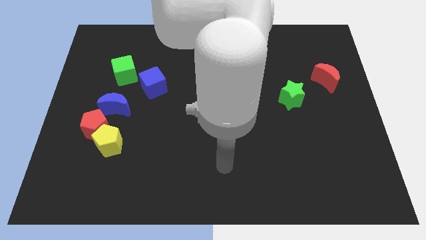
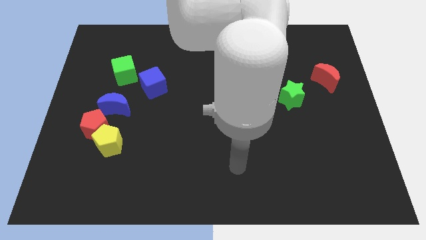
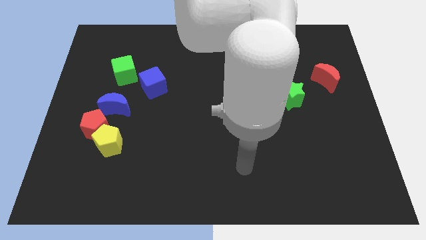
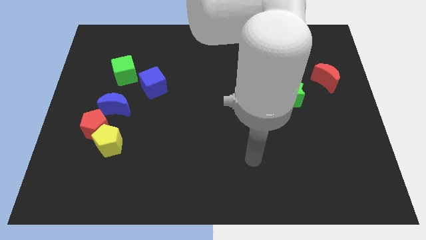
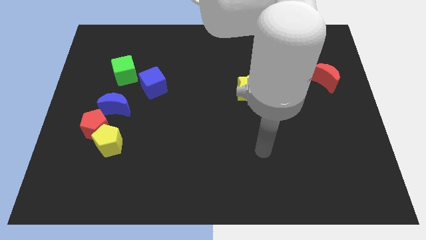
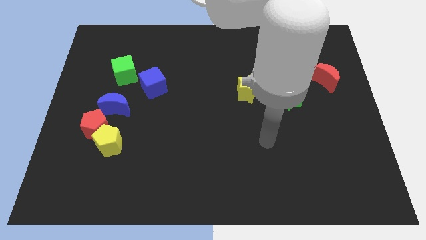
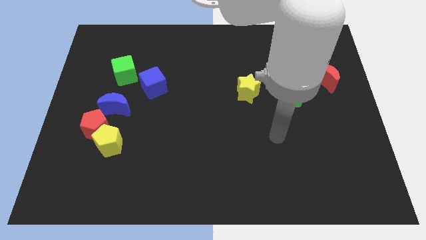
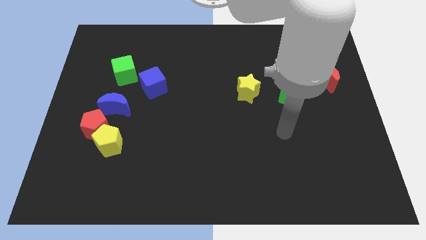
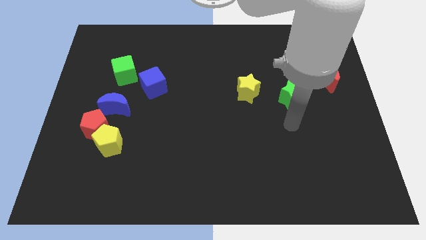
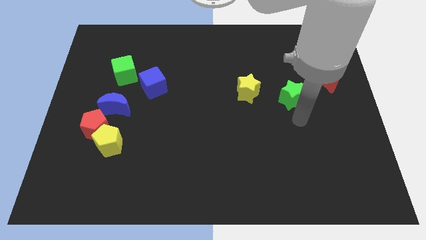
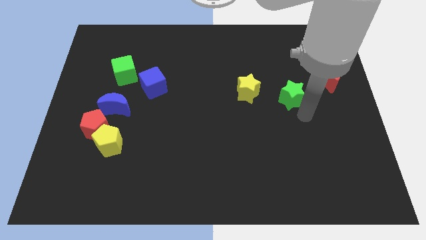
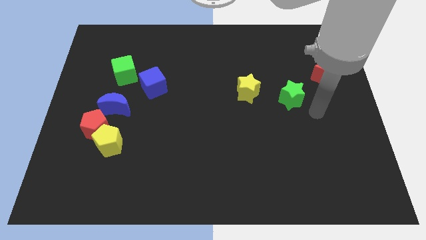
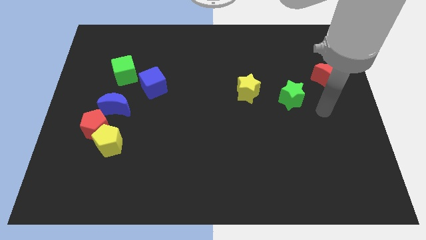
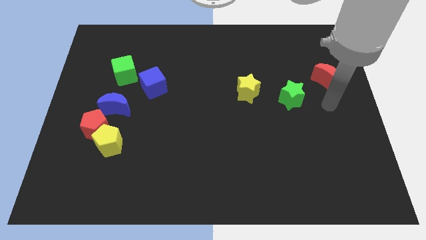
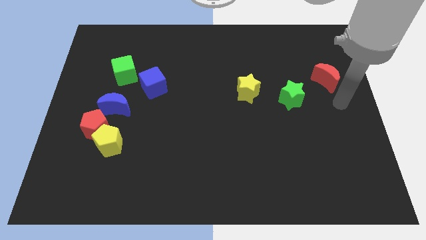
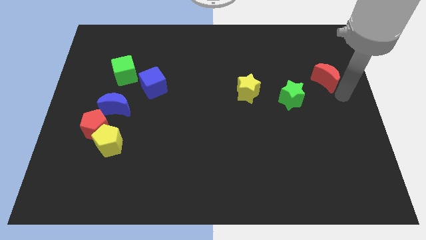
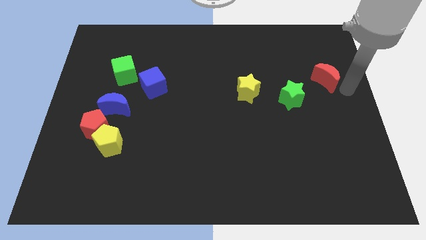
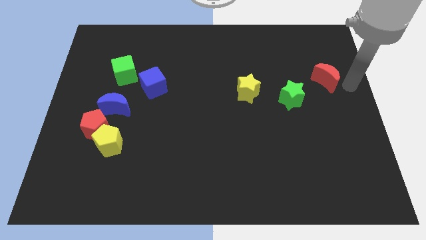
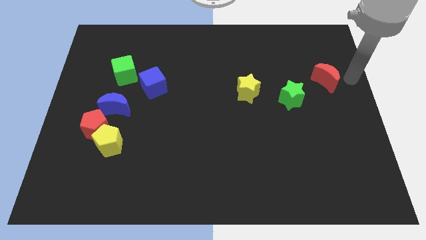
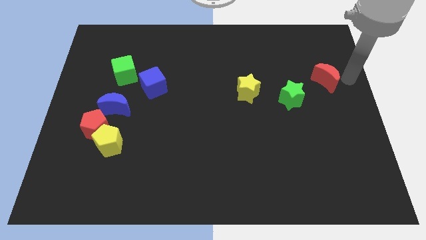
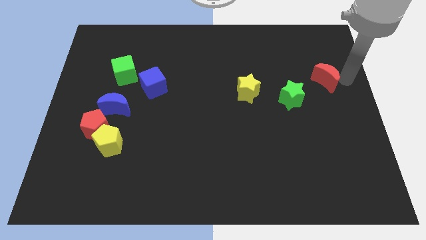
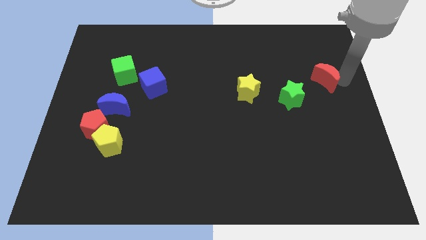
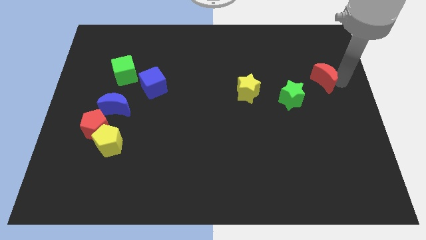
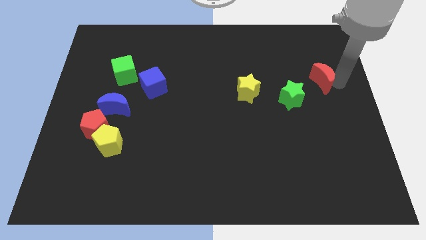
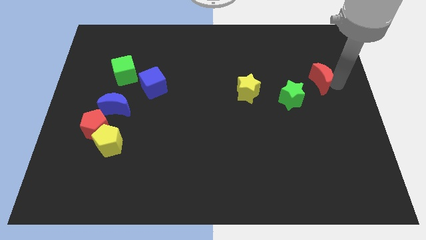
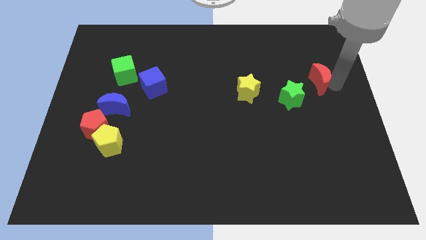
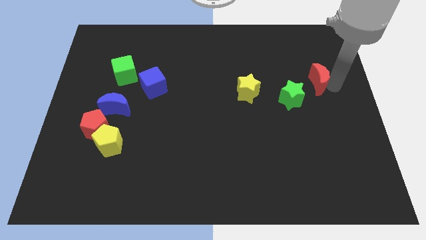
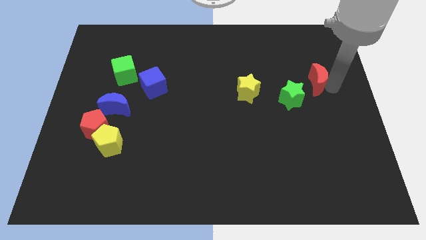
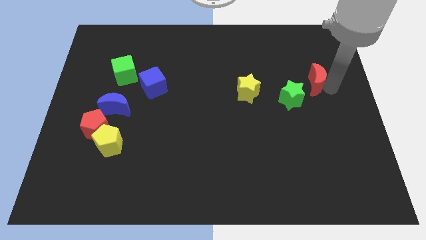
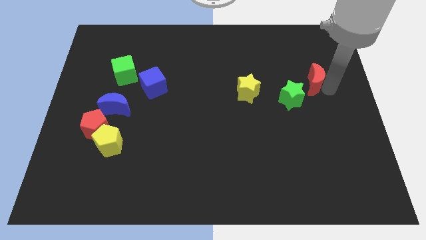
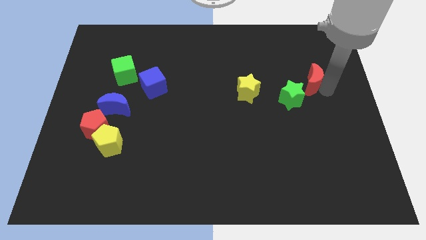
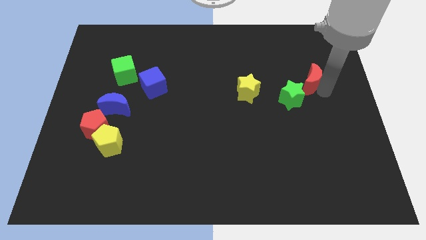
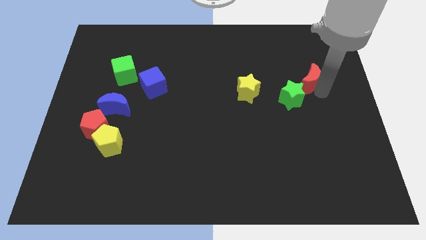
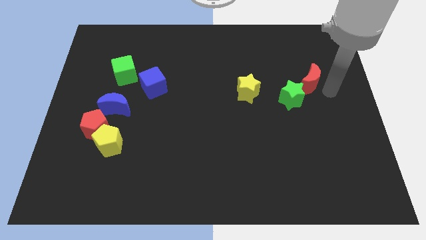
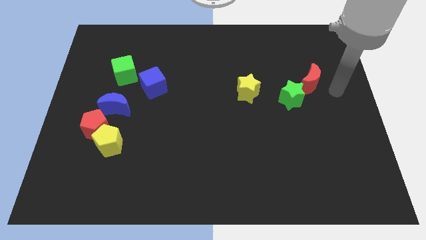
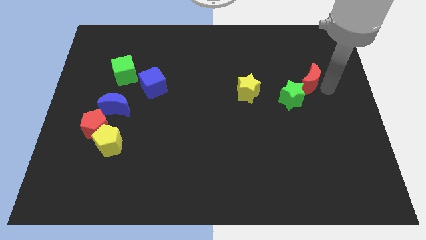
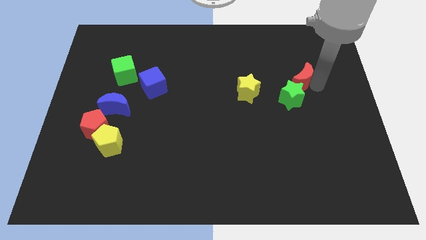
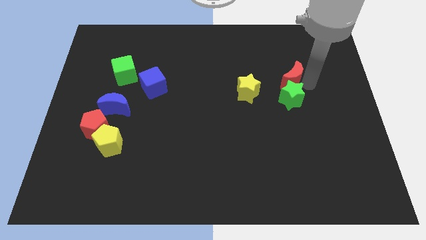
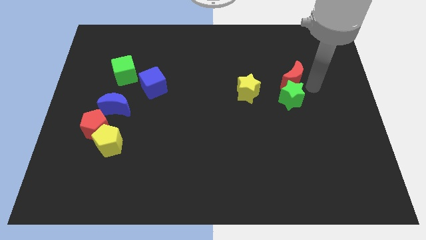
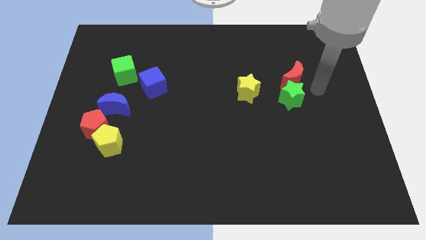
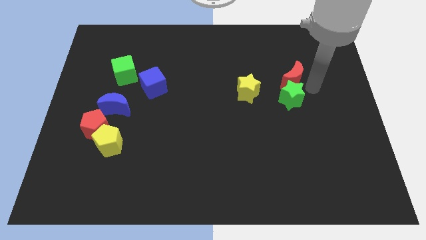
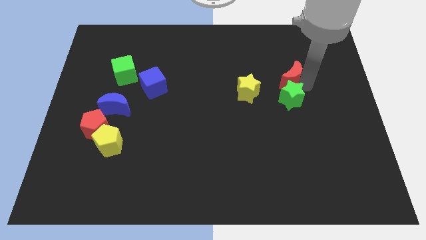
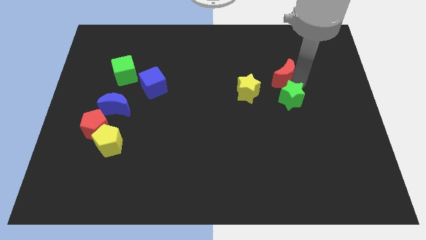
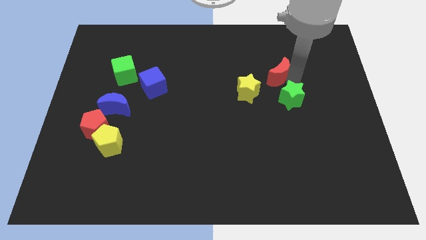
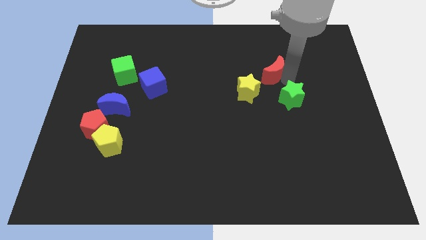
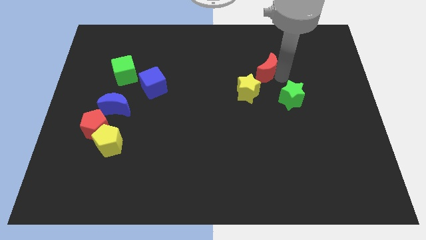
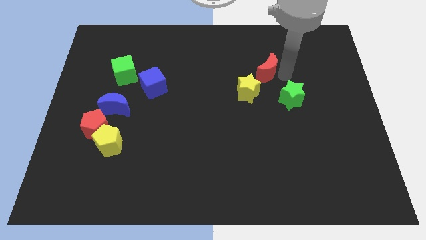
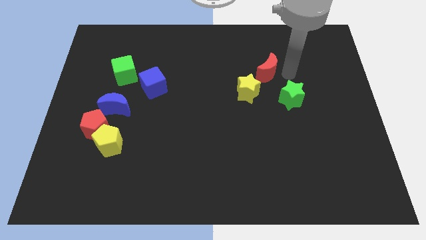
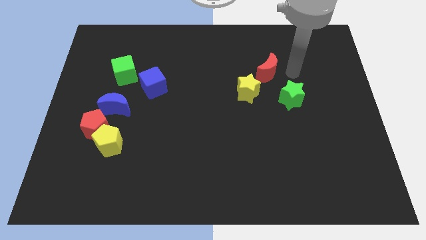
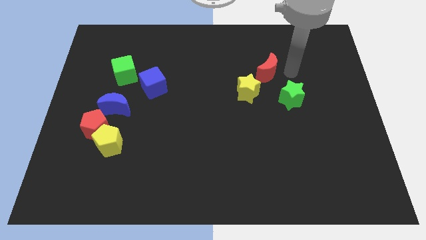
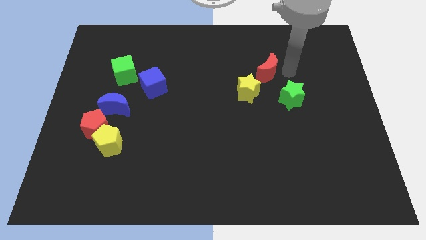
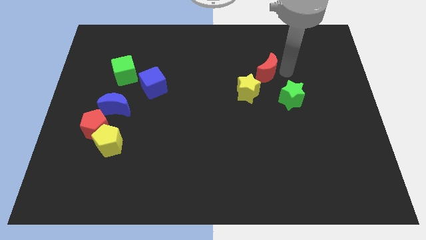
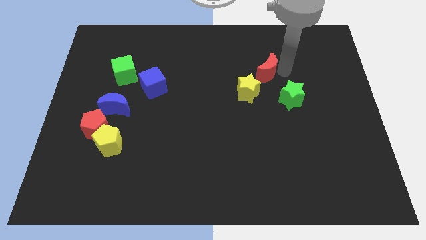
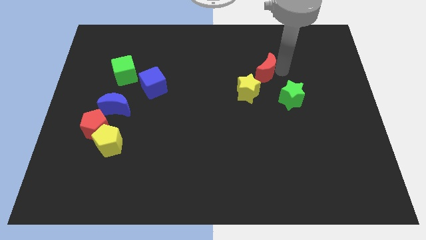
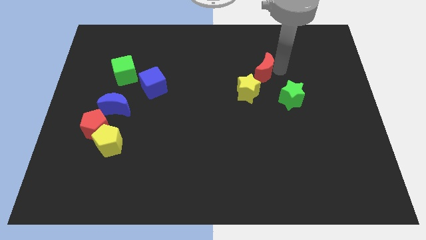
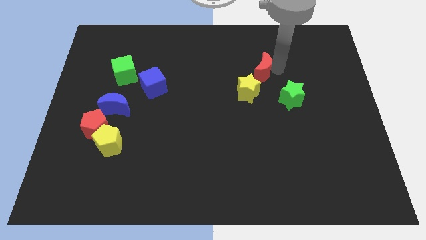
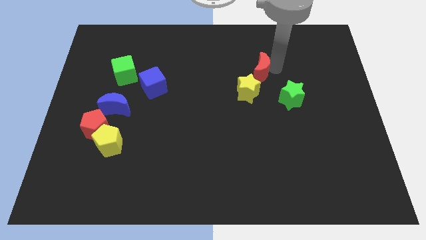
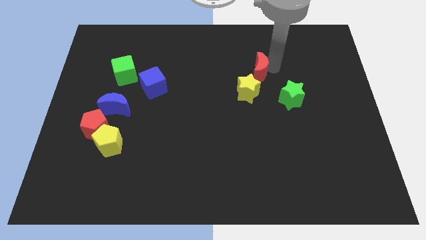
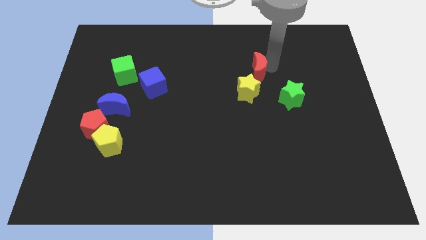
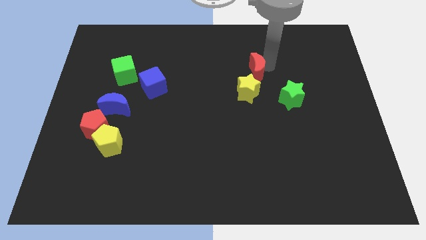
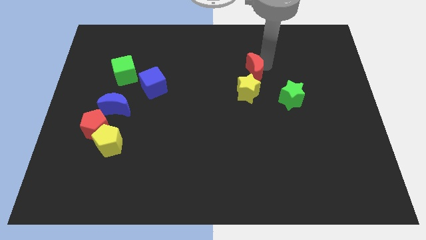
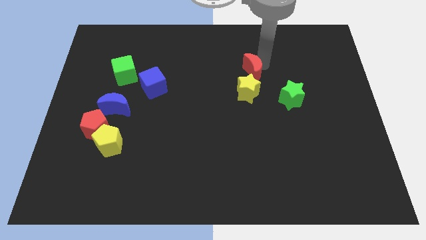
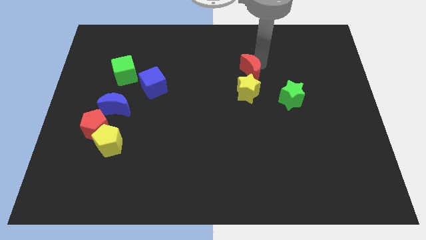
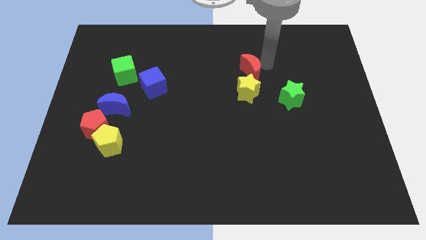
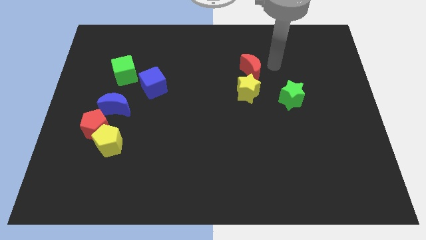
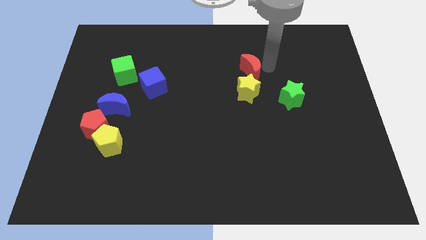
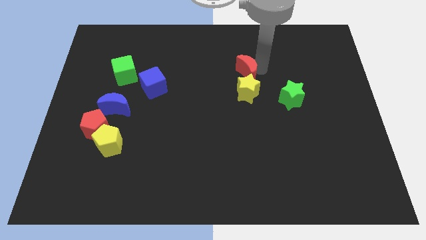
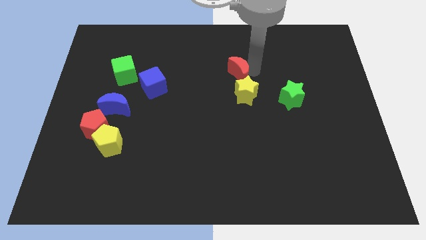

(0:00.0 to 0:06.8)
slide the red moon left

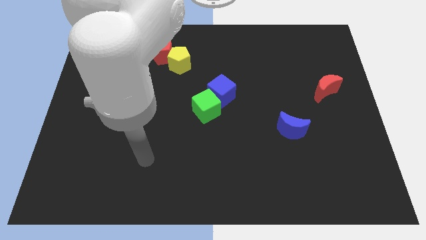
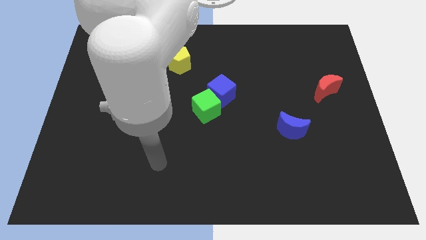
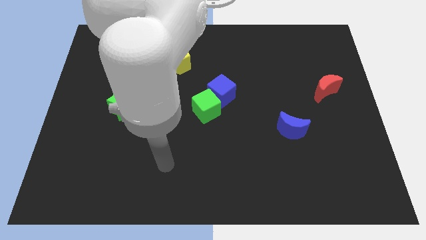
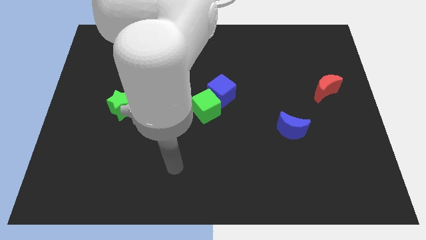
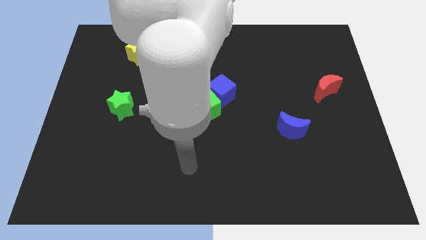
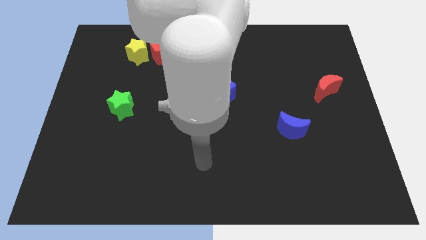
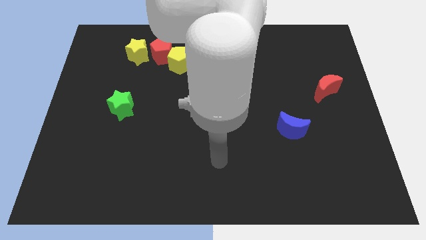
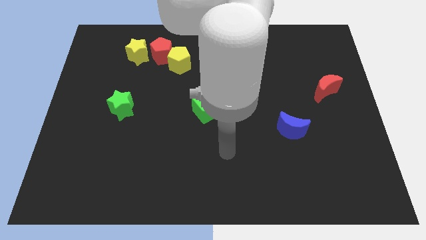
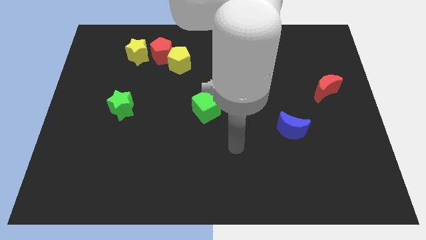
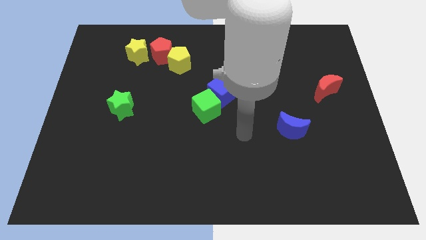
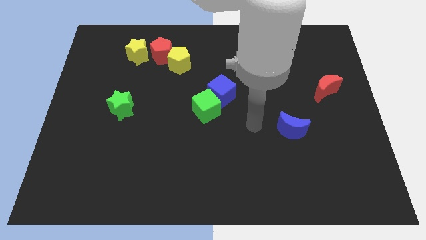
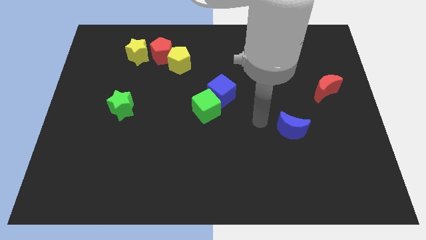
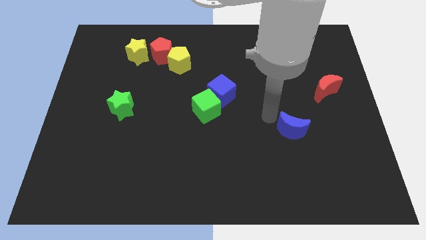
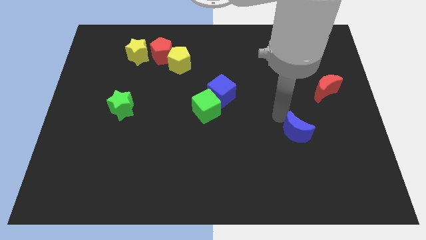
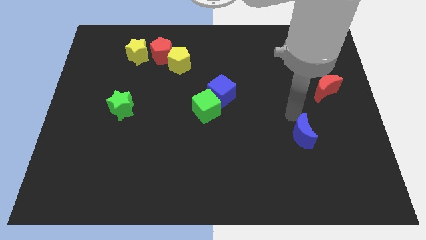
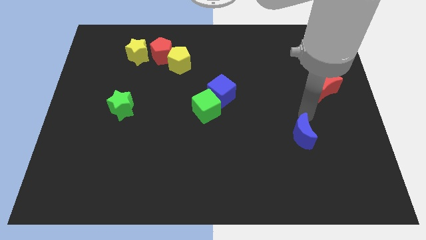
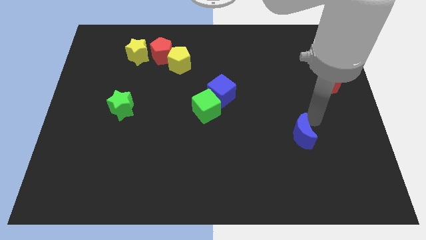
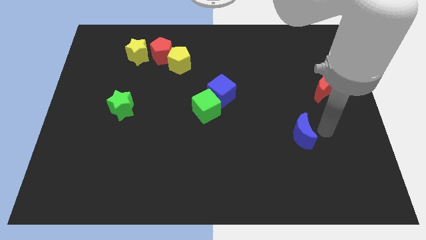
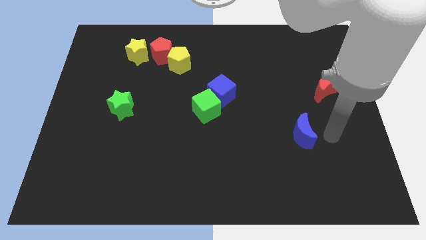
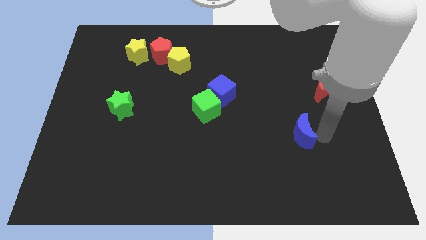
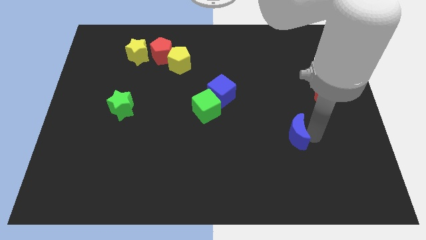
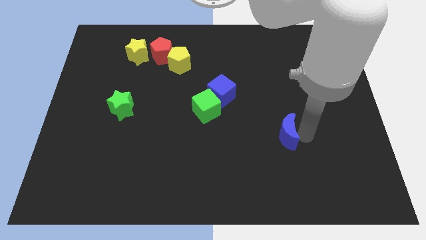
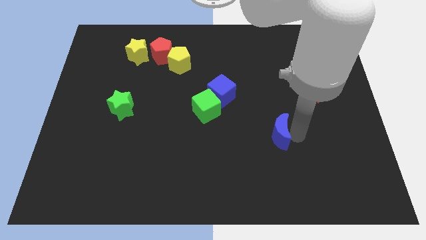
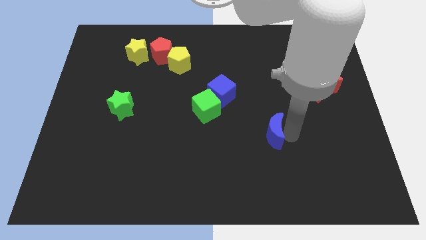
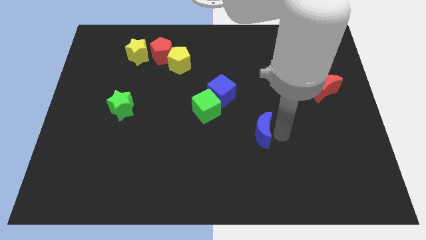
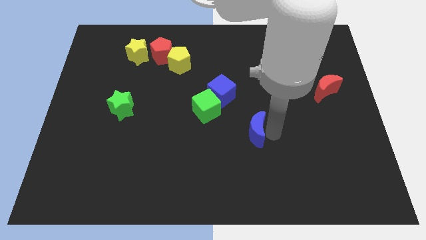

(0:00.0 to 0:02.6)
slide the blue moon to the left a little
